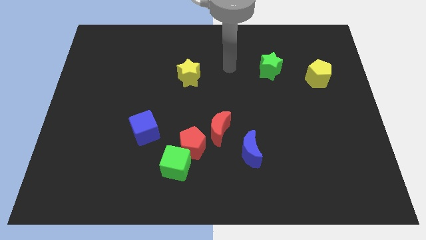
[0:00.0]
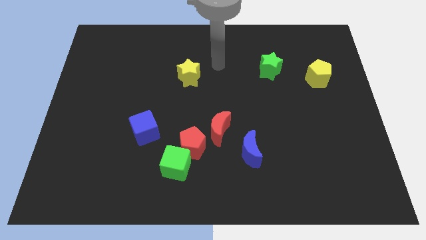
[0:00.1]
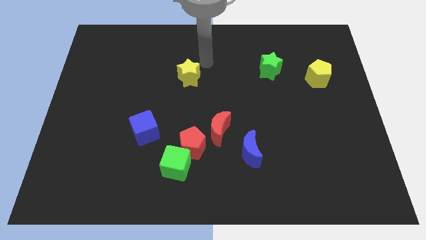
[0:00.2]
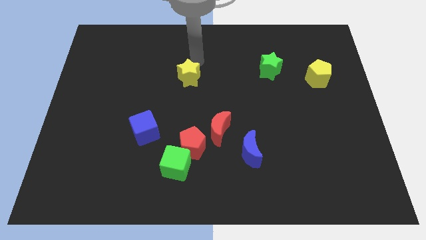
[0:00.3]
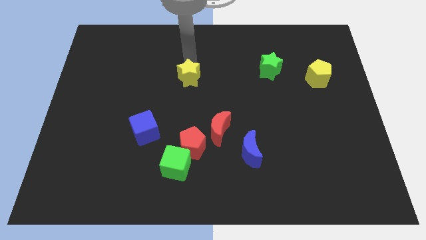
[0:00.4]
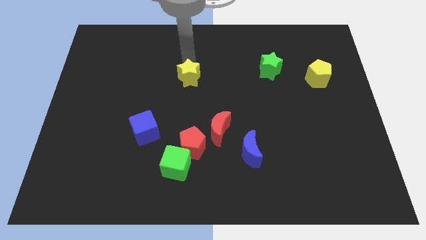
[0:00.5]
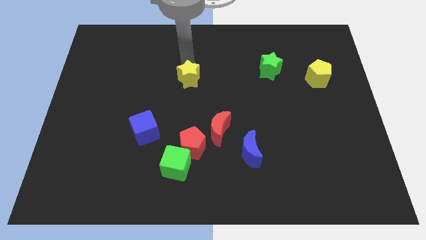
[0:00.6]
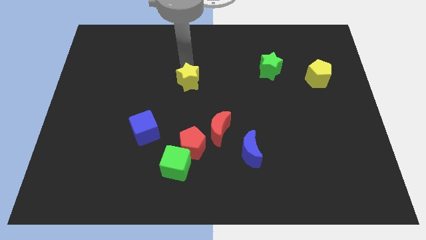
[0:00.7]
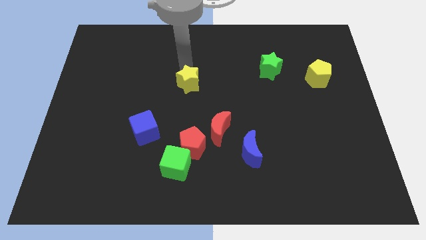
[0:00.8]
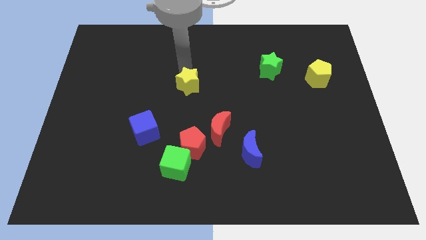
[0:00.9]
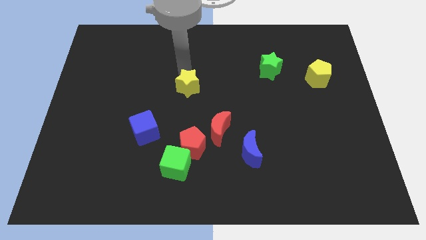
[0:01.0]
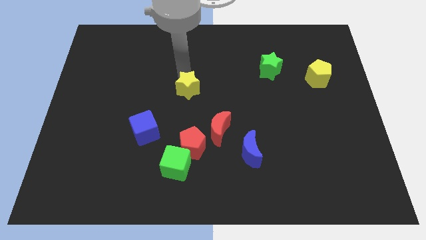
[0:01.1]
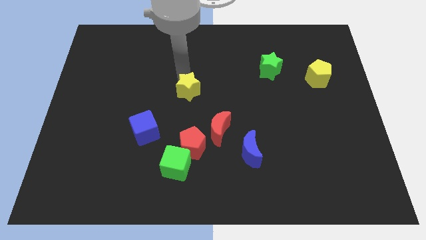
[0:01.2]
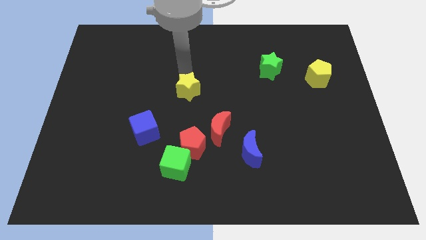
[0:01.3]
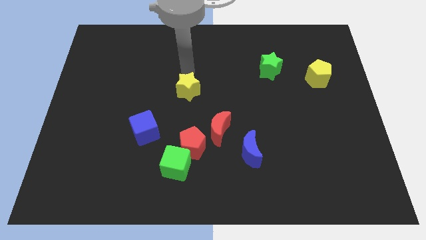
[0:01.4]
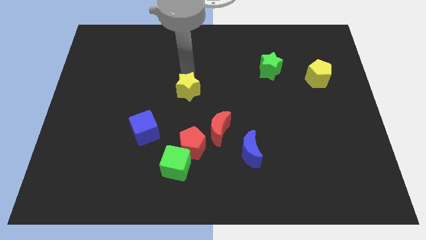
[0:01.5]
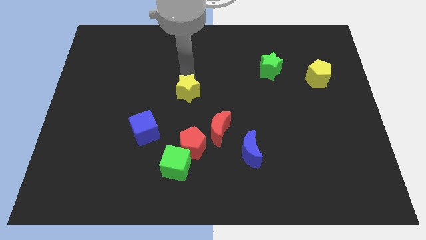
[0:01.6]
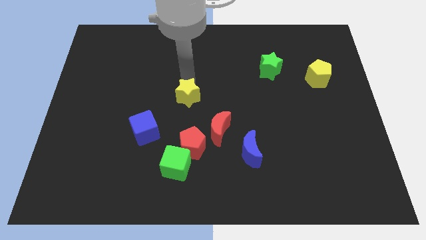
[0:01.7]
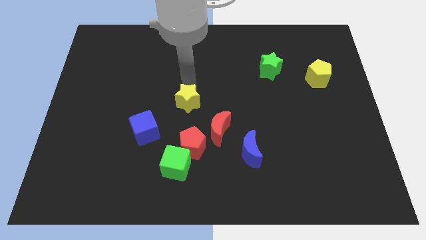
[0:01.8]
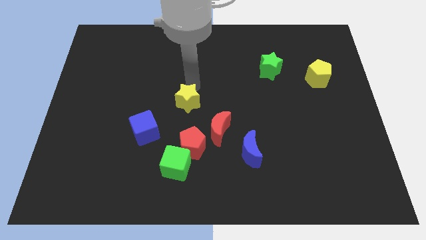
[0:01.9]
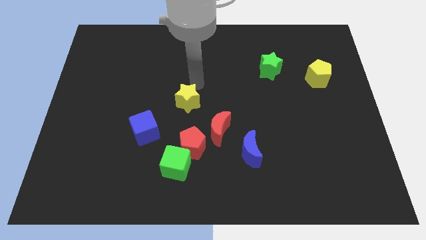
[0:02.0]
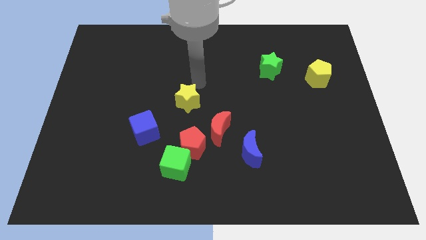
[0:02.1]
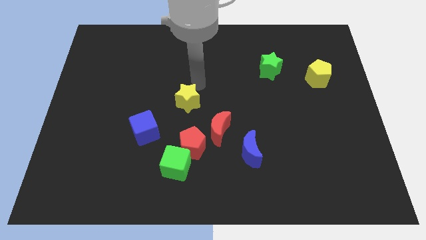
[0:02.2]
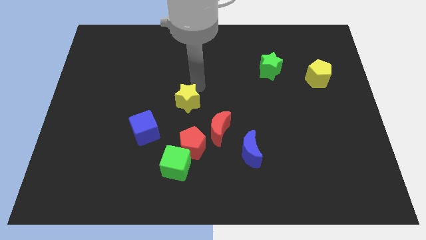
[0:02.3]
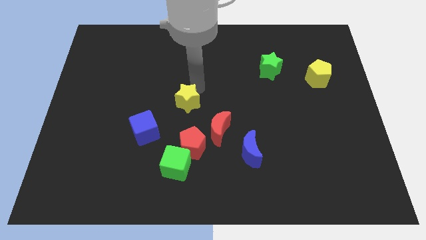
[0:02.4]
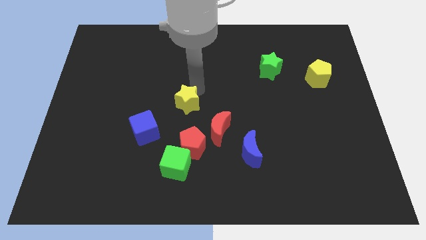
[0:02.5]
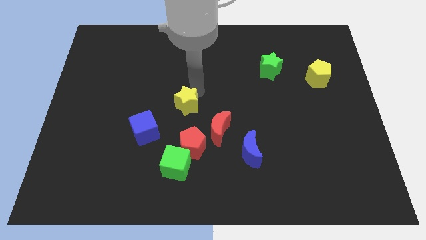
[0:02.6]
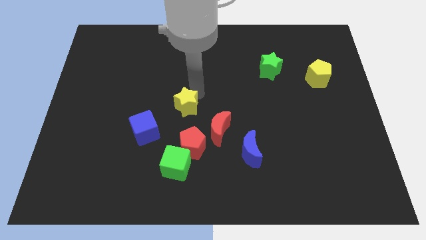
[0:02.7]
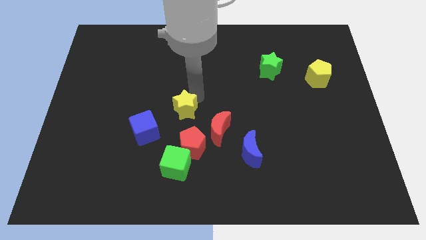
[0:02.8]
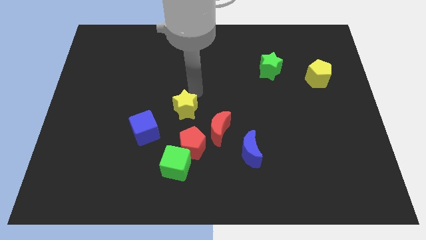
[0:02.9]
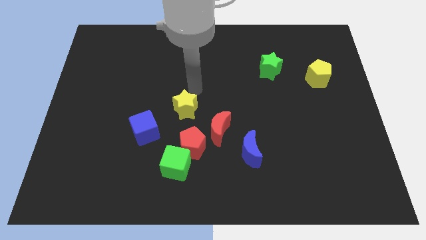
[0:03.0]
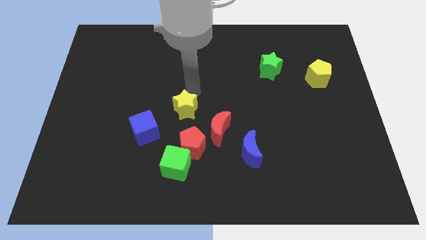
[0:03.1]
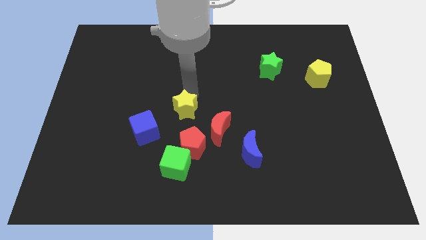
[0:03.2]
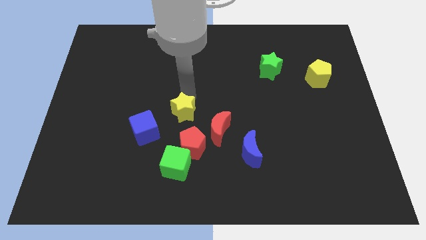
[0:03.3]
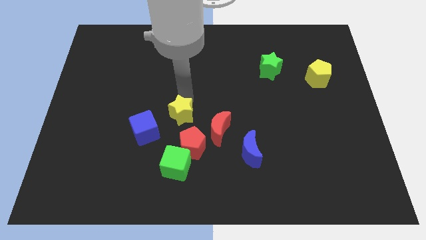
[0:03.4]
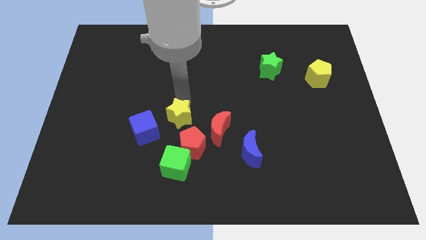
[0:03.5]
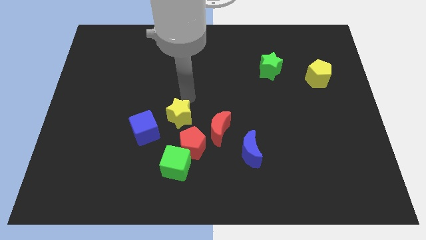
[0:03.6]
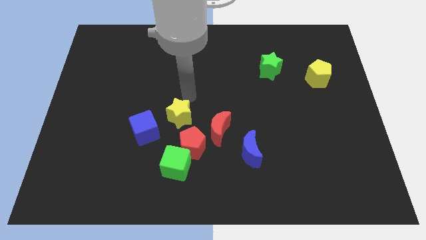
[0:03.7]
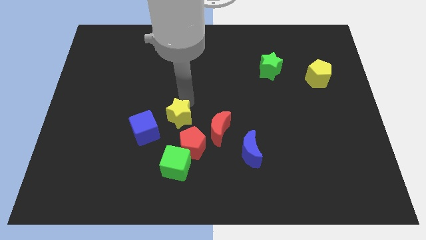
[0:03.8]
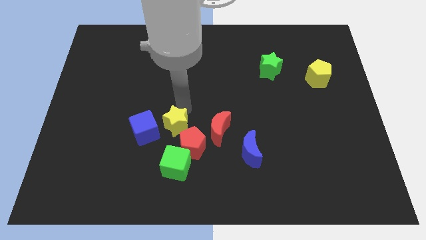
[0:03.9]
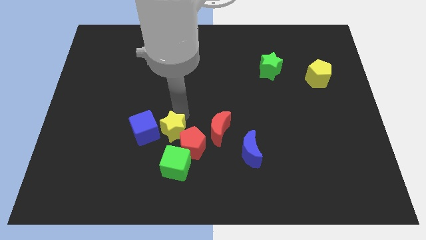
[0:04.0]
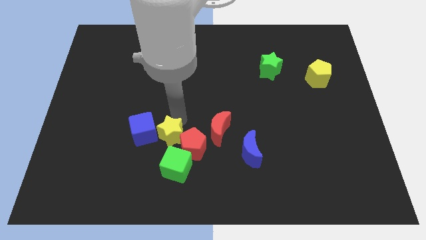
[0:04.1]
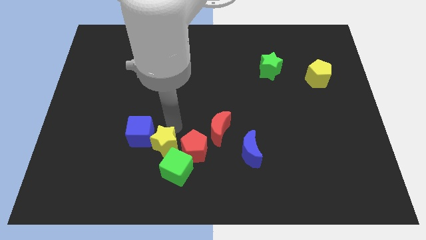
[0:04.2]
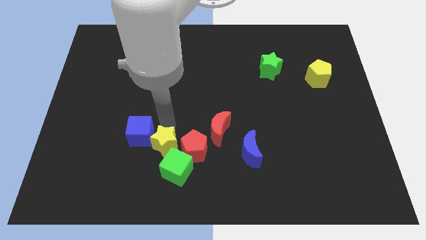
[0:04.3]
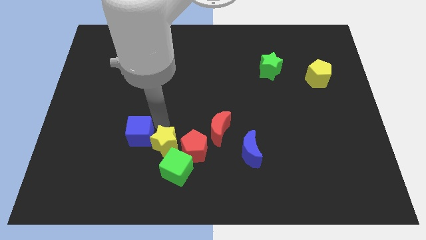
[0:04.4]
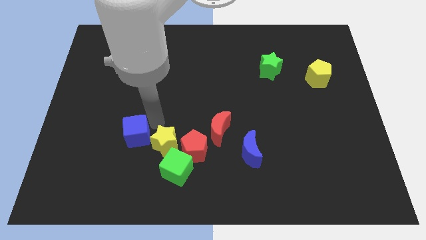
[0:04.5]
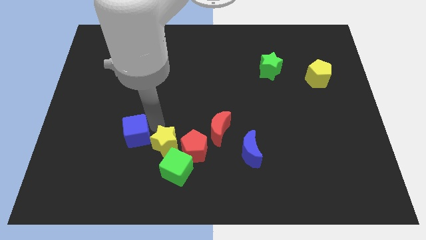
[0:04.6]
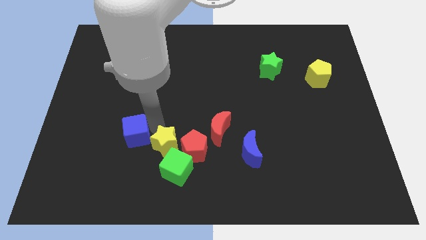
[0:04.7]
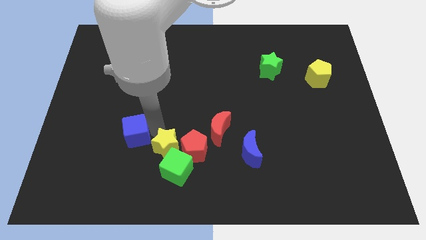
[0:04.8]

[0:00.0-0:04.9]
slide the yellow star towards the green cube

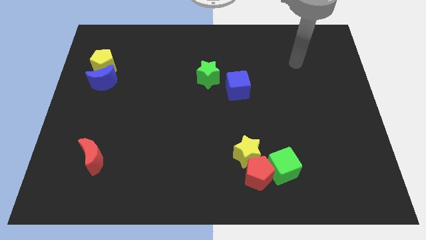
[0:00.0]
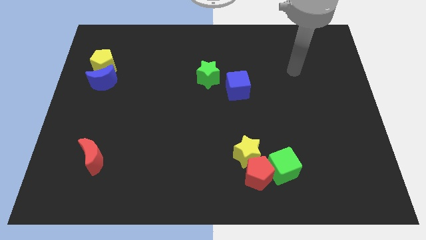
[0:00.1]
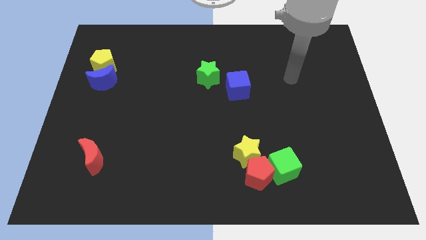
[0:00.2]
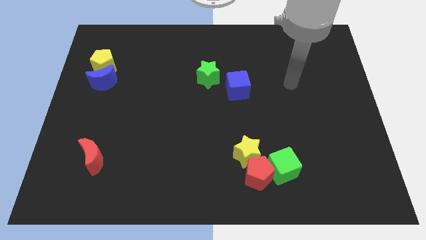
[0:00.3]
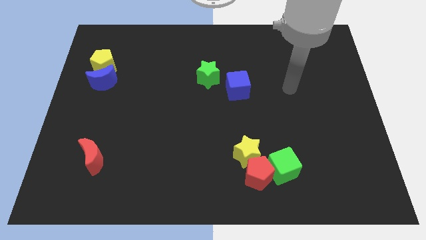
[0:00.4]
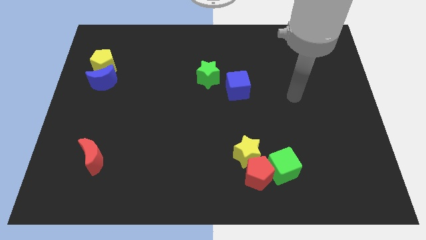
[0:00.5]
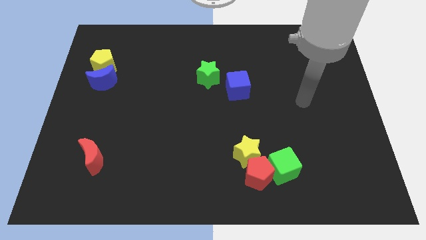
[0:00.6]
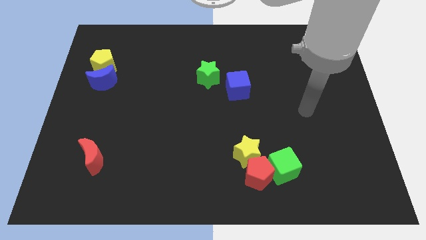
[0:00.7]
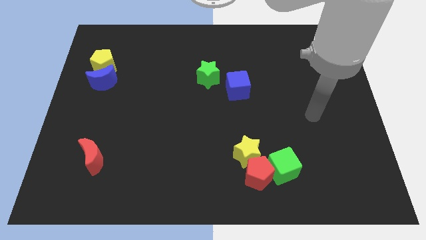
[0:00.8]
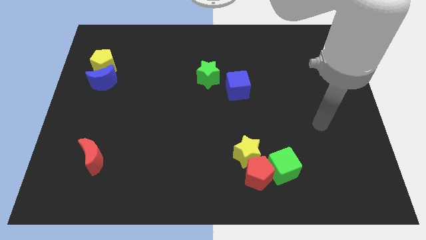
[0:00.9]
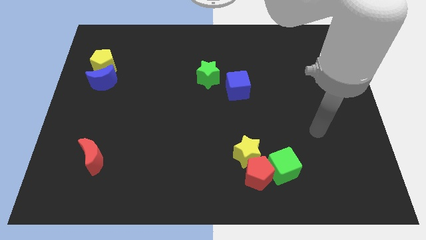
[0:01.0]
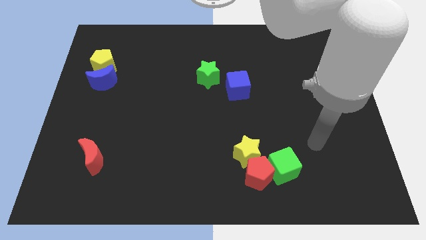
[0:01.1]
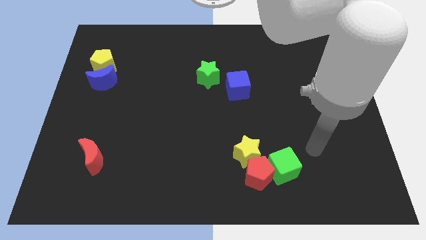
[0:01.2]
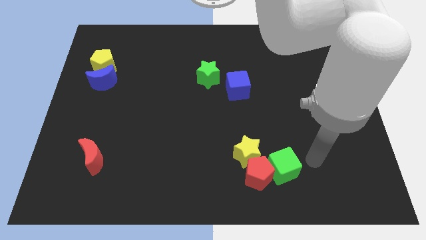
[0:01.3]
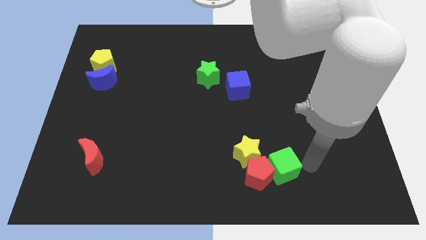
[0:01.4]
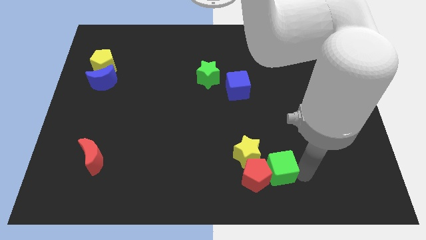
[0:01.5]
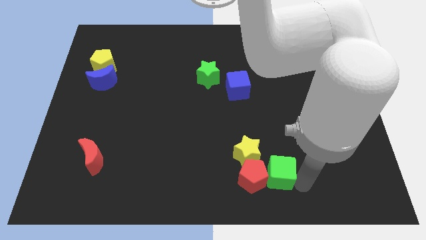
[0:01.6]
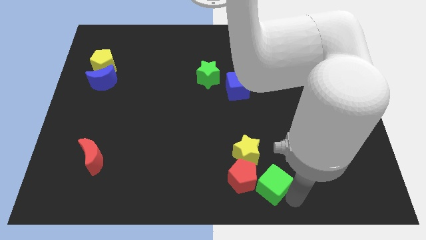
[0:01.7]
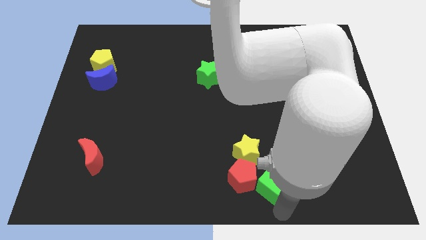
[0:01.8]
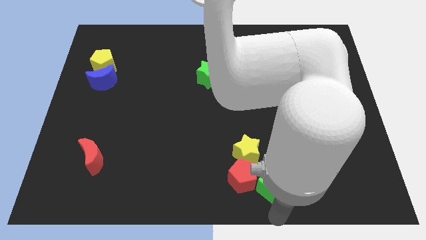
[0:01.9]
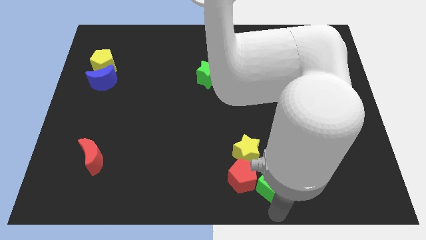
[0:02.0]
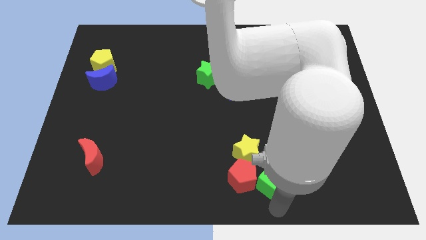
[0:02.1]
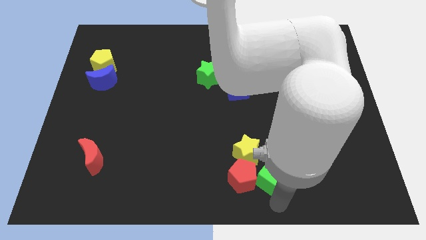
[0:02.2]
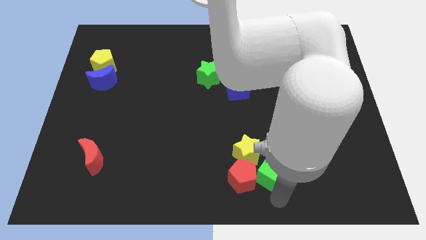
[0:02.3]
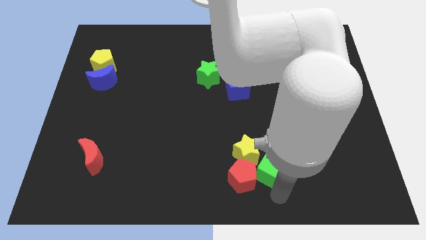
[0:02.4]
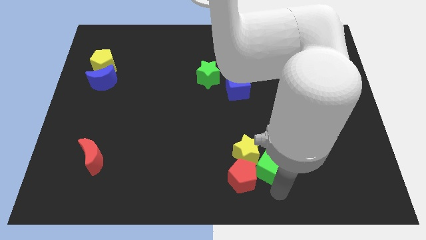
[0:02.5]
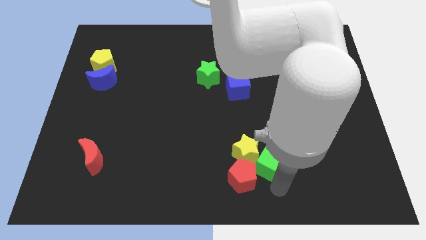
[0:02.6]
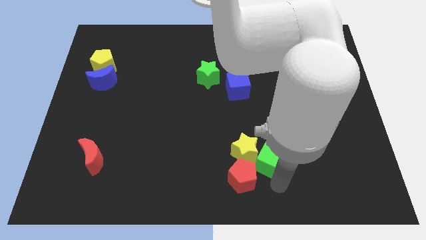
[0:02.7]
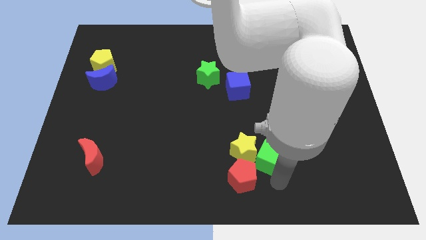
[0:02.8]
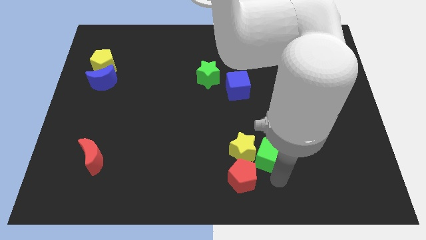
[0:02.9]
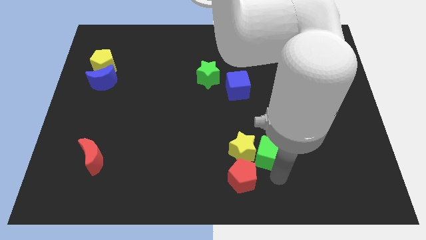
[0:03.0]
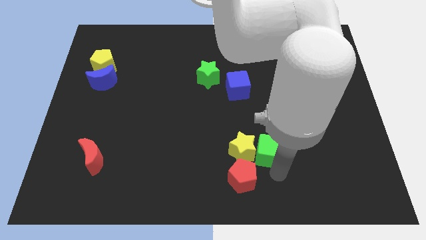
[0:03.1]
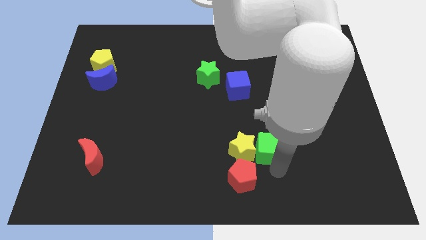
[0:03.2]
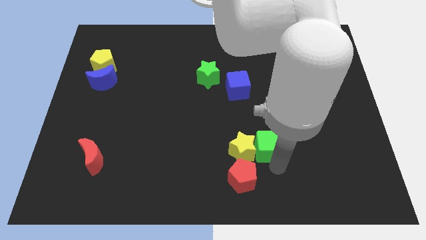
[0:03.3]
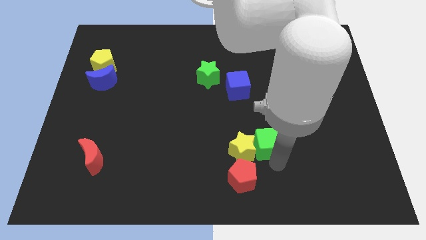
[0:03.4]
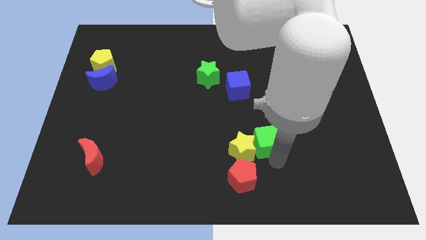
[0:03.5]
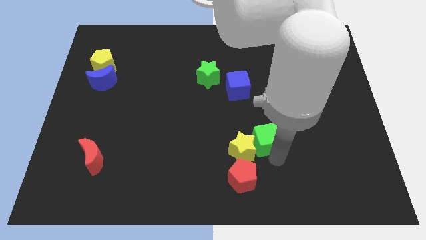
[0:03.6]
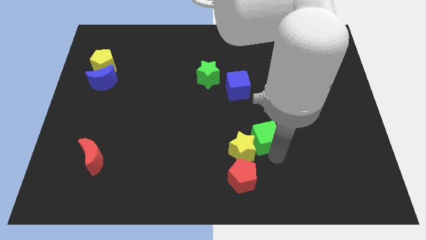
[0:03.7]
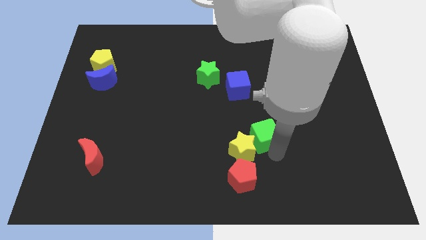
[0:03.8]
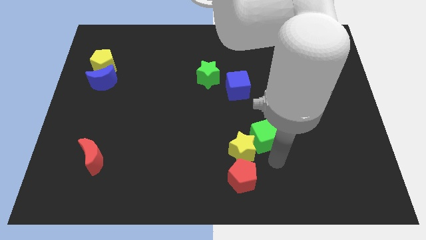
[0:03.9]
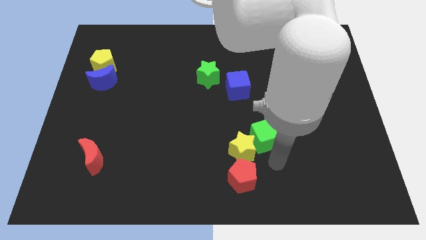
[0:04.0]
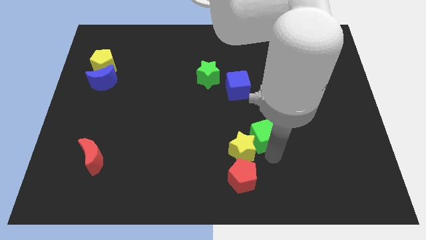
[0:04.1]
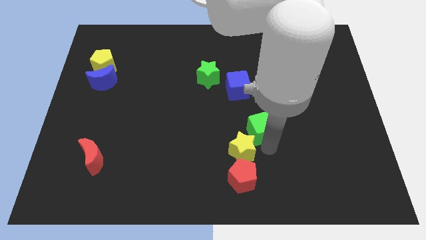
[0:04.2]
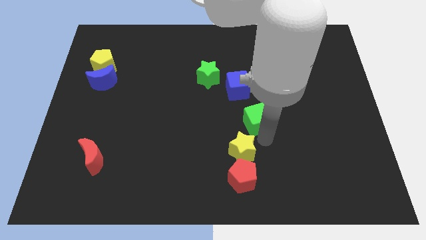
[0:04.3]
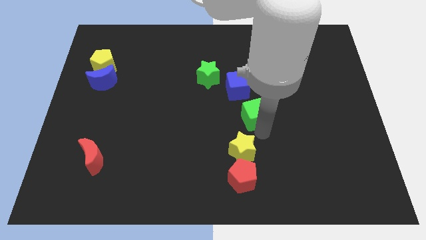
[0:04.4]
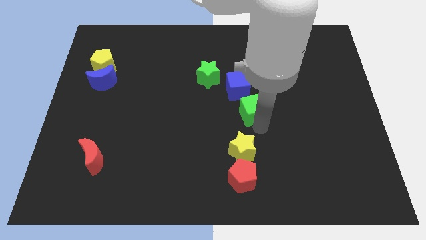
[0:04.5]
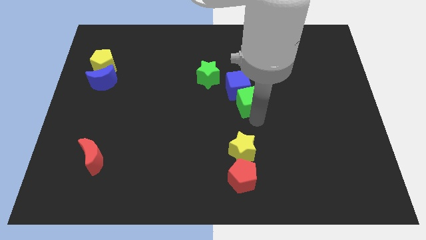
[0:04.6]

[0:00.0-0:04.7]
slide the green cube close to the blue cube
